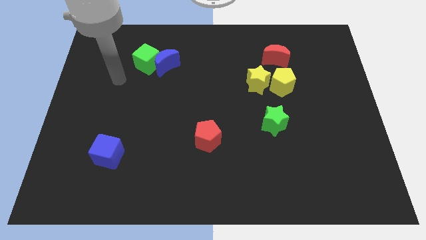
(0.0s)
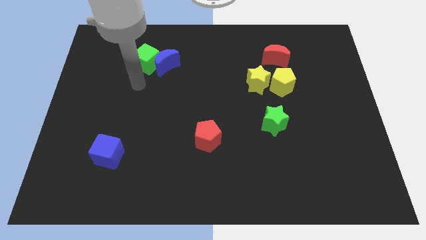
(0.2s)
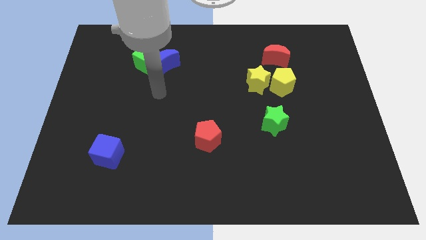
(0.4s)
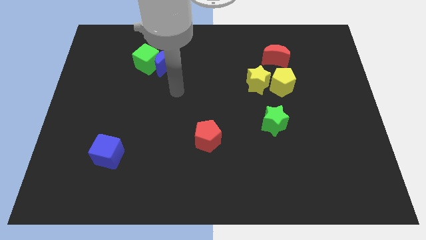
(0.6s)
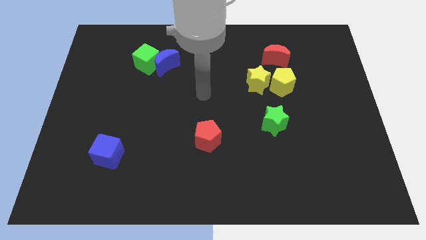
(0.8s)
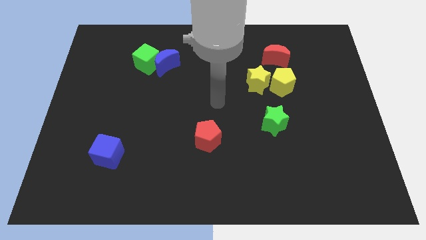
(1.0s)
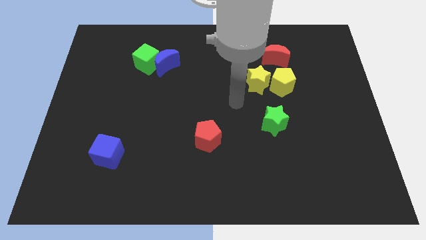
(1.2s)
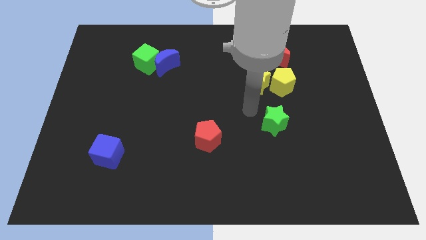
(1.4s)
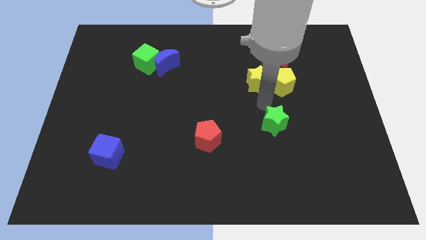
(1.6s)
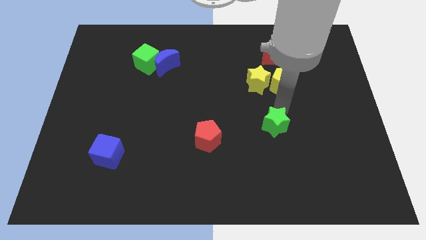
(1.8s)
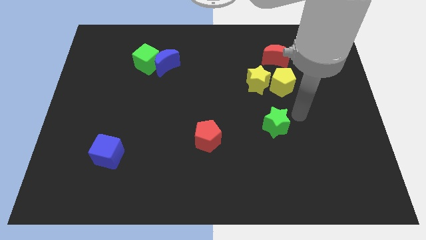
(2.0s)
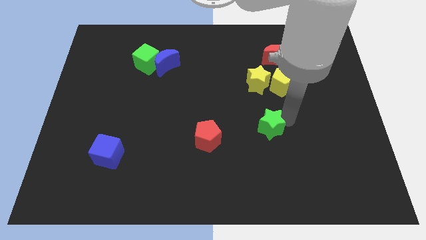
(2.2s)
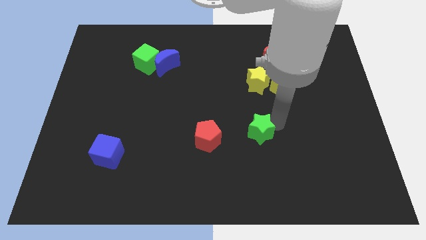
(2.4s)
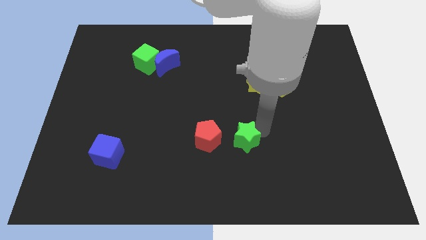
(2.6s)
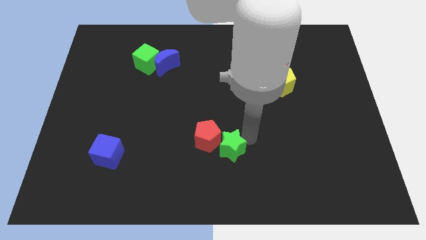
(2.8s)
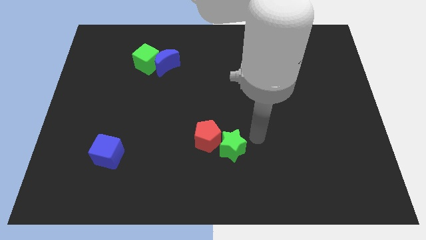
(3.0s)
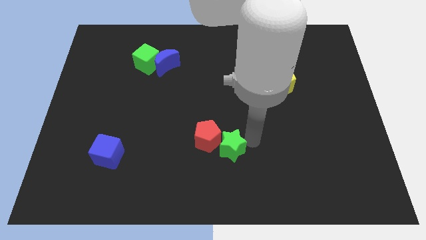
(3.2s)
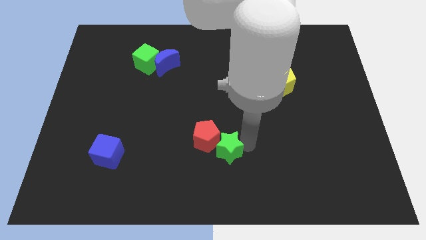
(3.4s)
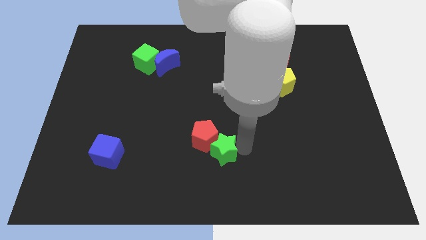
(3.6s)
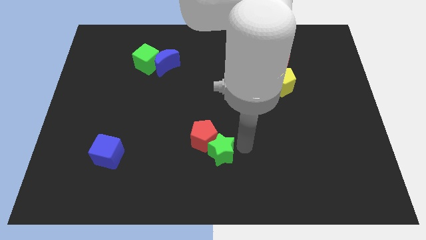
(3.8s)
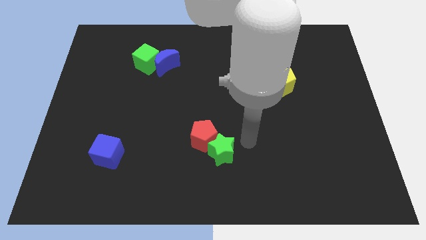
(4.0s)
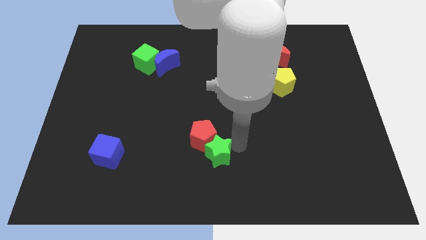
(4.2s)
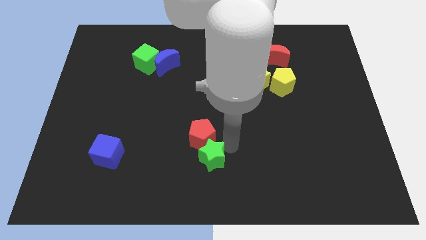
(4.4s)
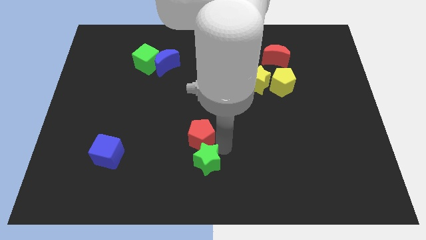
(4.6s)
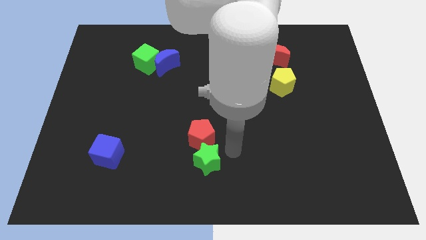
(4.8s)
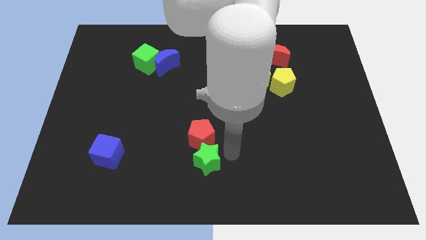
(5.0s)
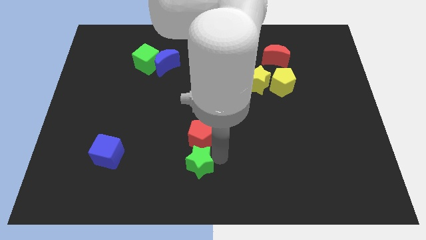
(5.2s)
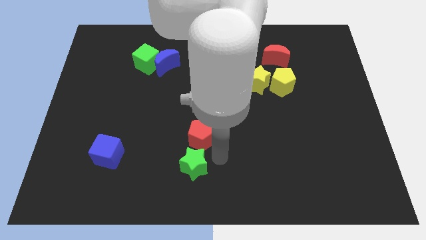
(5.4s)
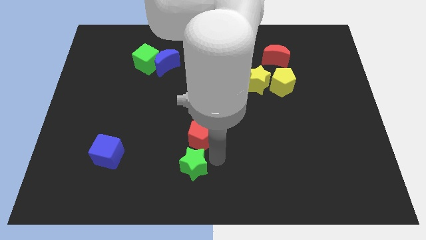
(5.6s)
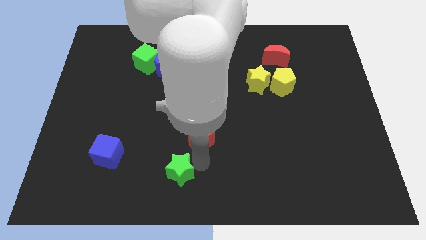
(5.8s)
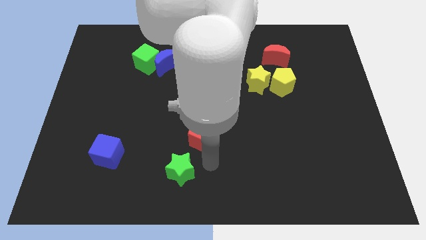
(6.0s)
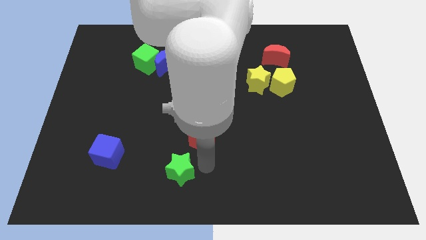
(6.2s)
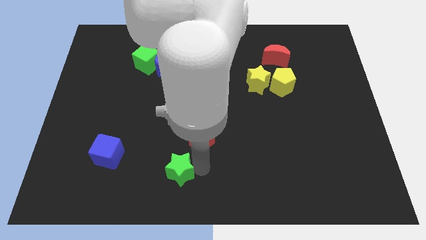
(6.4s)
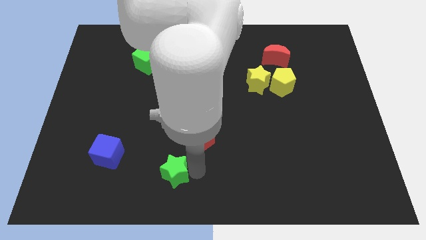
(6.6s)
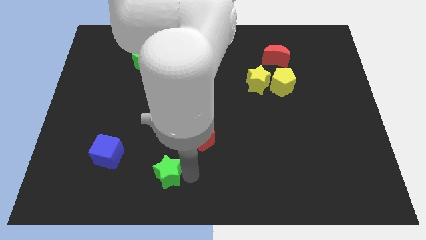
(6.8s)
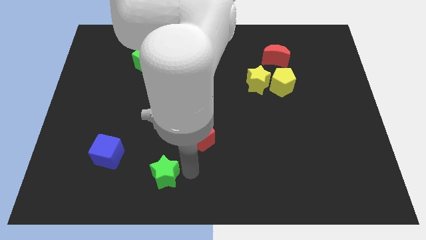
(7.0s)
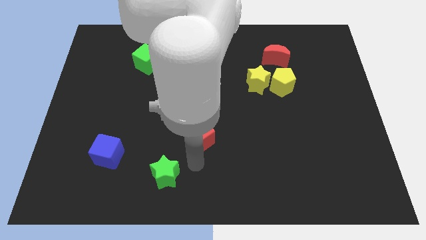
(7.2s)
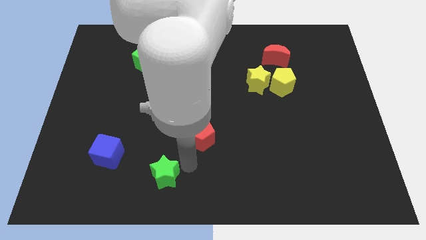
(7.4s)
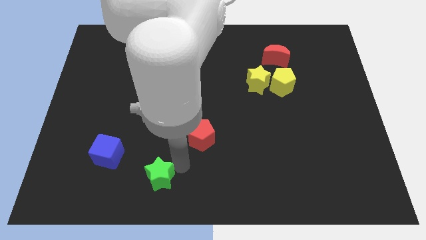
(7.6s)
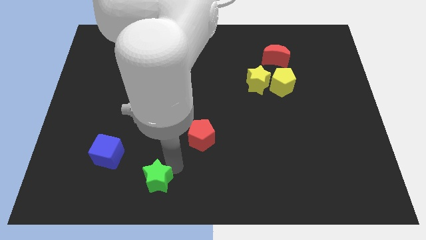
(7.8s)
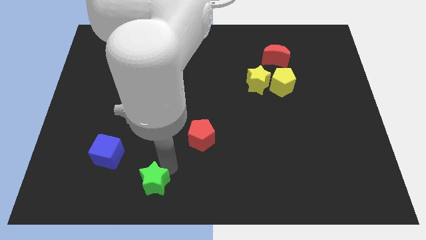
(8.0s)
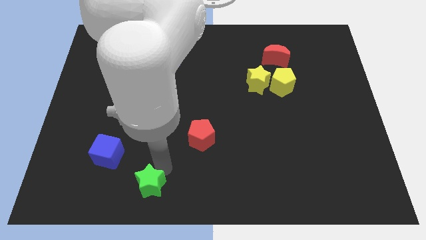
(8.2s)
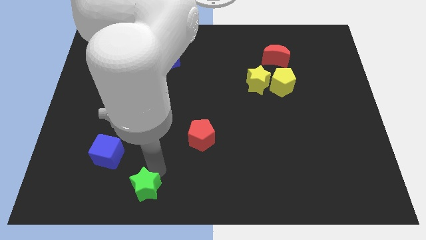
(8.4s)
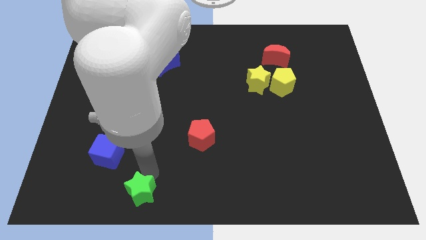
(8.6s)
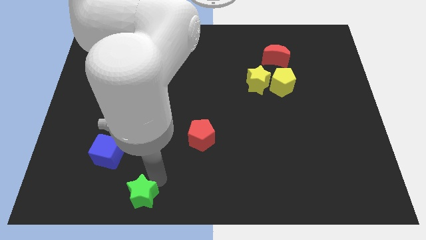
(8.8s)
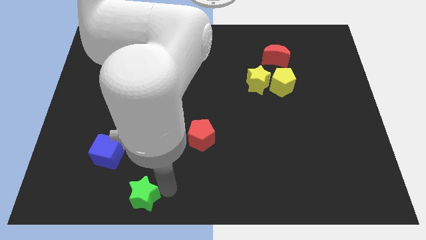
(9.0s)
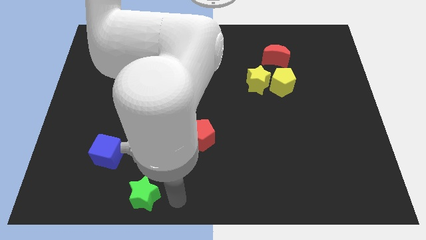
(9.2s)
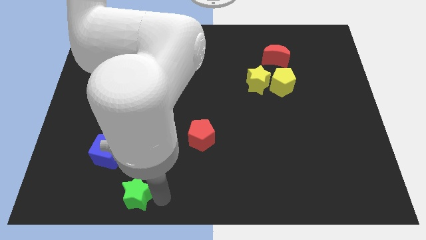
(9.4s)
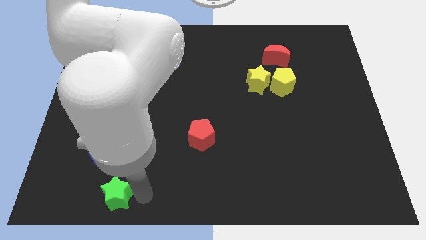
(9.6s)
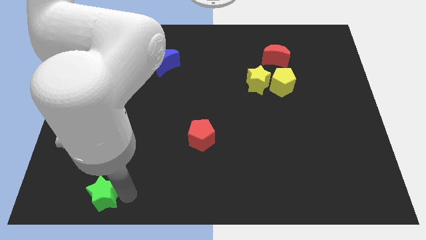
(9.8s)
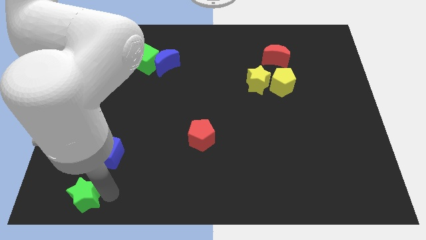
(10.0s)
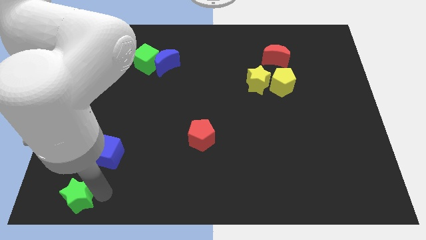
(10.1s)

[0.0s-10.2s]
push the green star to the lower left corner

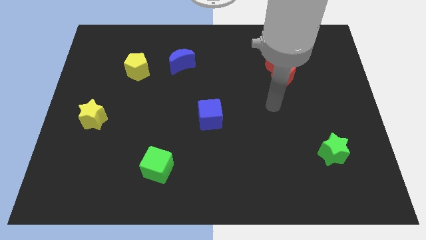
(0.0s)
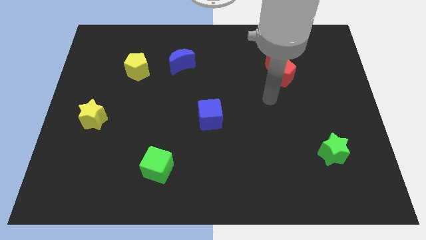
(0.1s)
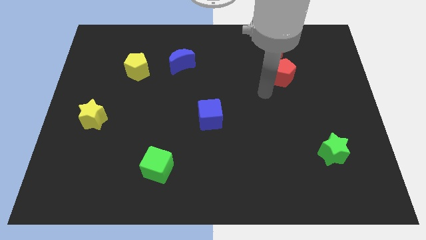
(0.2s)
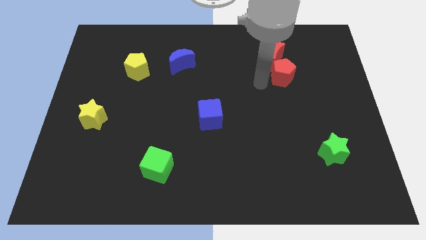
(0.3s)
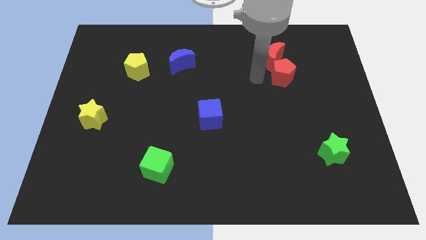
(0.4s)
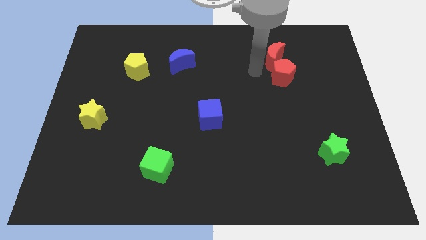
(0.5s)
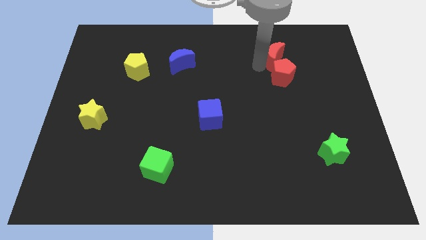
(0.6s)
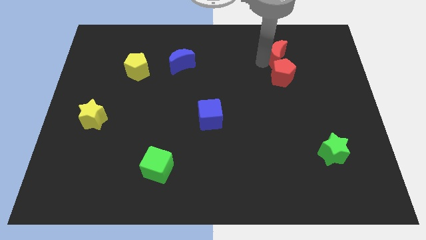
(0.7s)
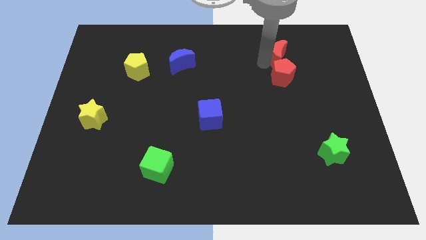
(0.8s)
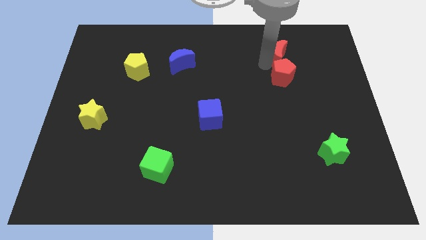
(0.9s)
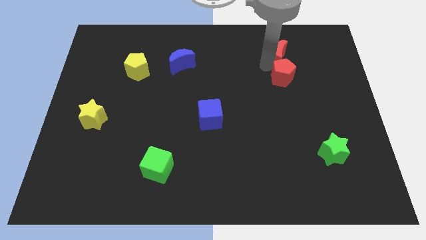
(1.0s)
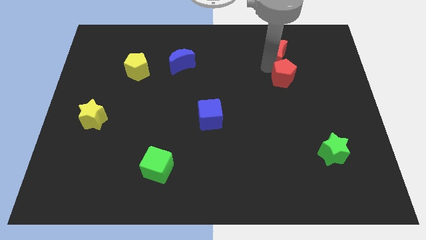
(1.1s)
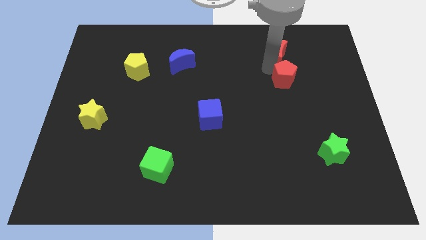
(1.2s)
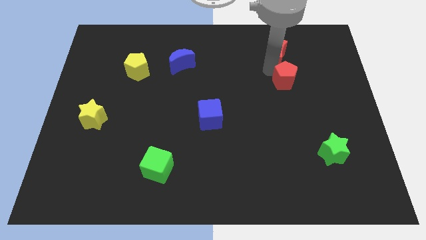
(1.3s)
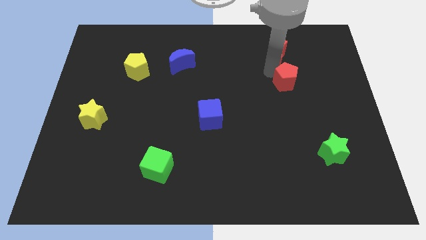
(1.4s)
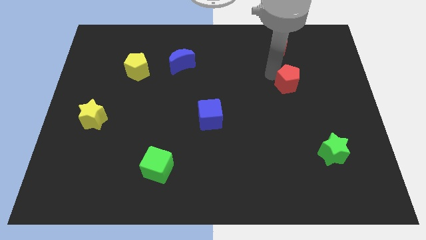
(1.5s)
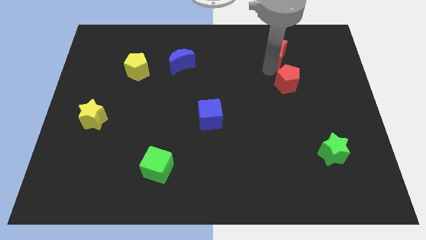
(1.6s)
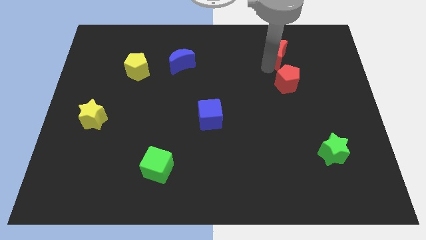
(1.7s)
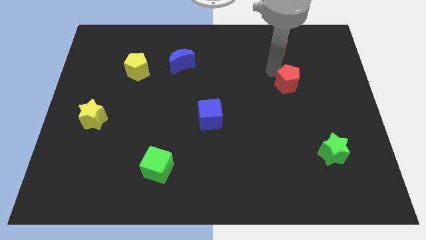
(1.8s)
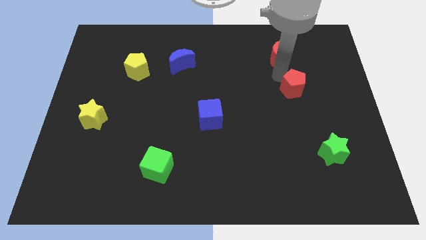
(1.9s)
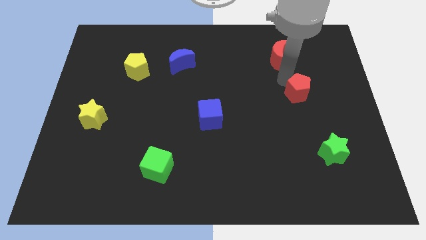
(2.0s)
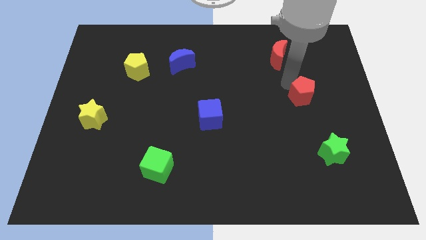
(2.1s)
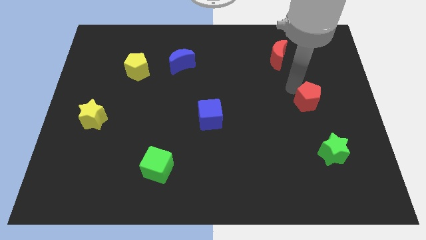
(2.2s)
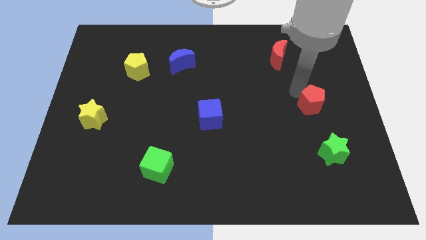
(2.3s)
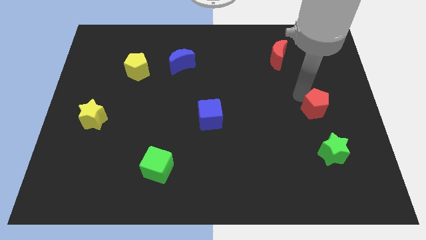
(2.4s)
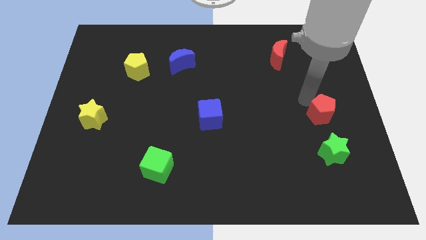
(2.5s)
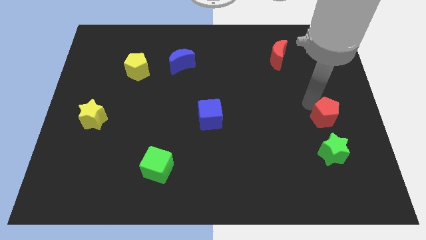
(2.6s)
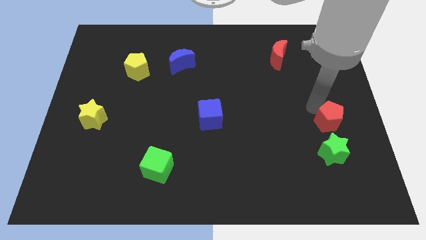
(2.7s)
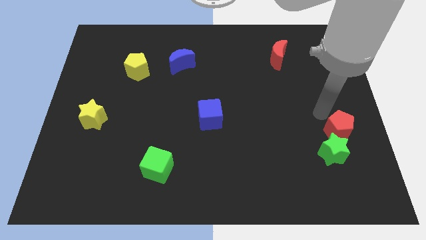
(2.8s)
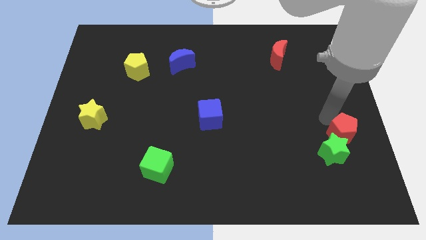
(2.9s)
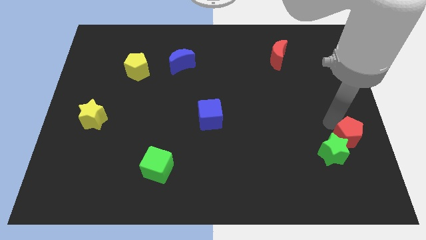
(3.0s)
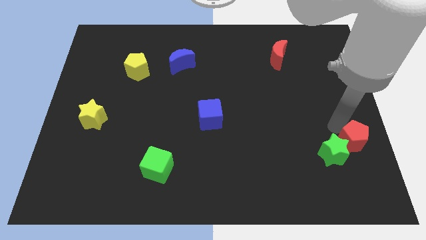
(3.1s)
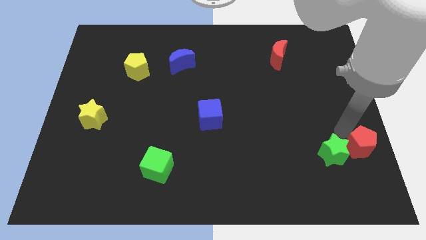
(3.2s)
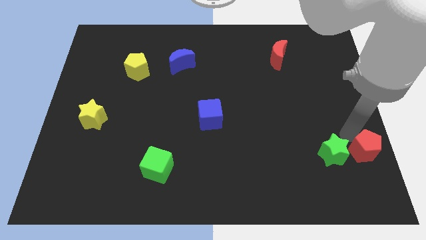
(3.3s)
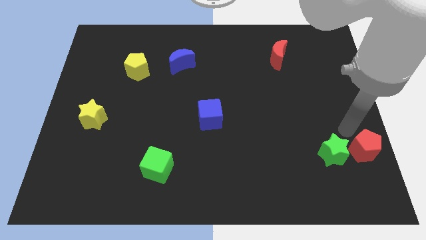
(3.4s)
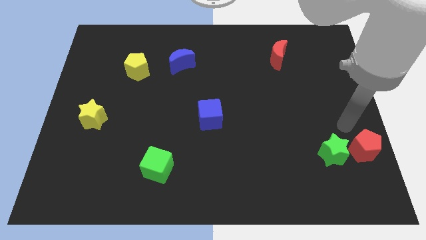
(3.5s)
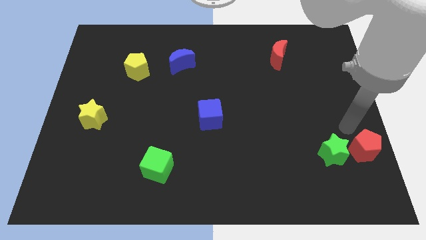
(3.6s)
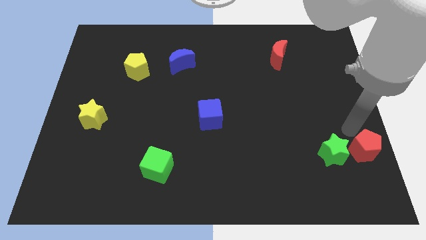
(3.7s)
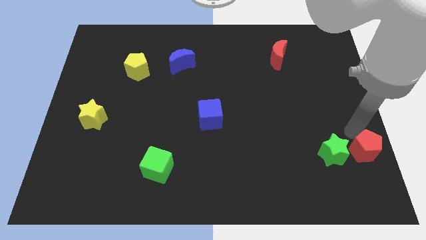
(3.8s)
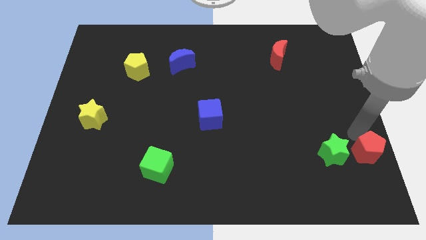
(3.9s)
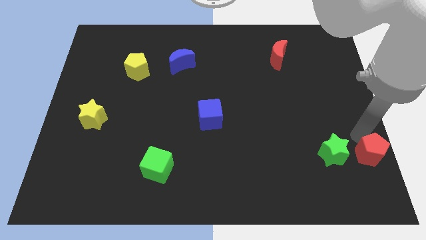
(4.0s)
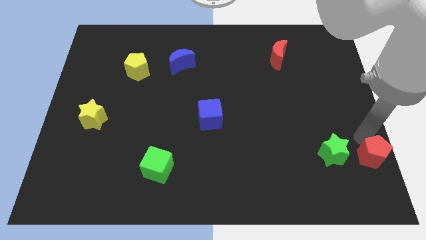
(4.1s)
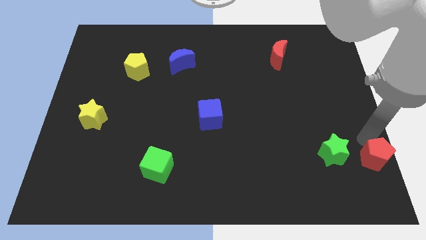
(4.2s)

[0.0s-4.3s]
slide the red pentagon to the bottom right of the board
